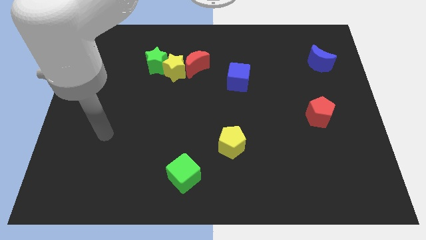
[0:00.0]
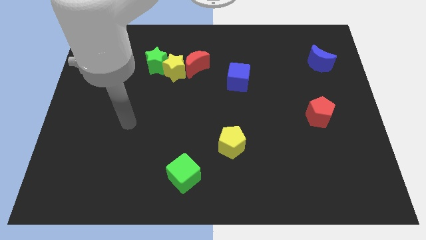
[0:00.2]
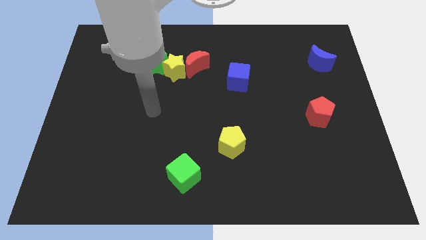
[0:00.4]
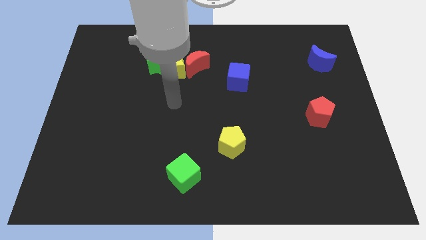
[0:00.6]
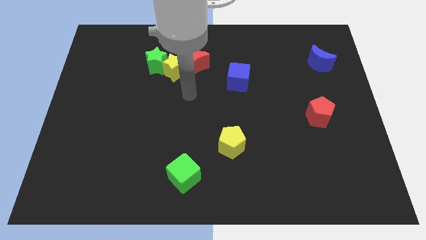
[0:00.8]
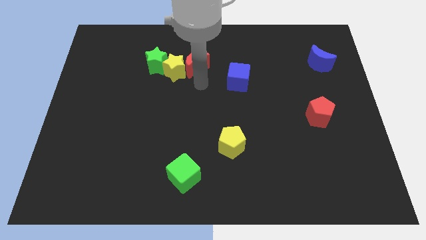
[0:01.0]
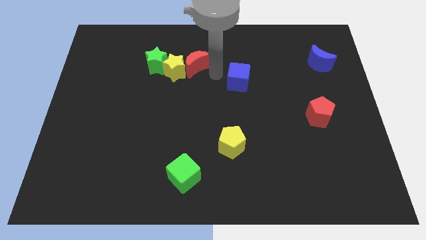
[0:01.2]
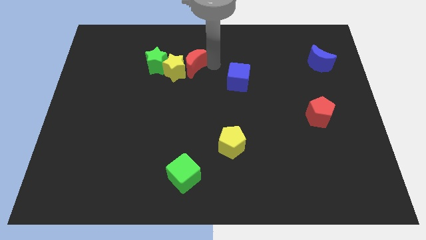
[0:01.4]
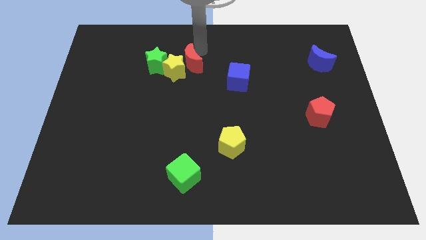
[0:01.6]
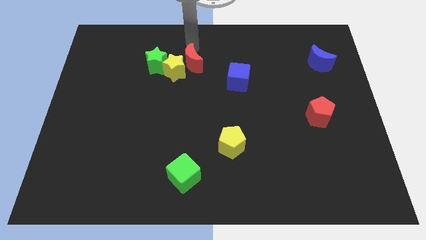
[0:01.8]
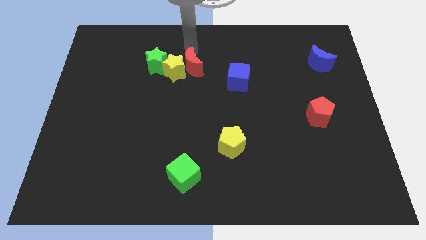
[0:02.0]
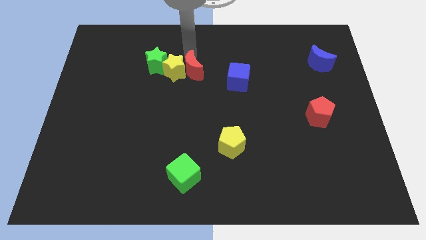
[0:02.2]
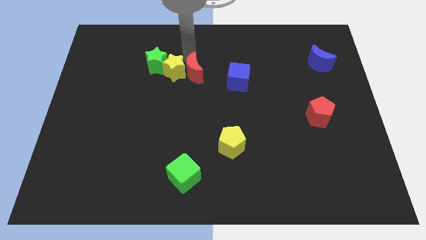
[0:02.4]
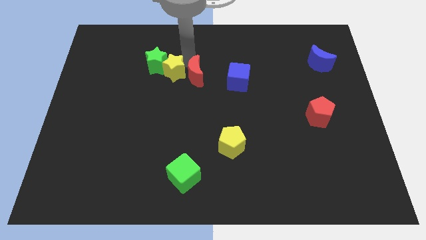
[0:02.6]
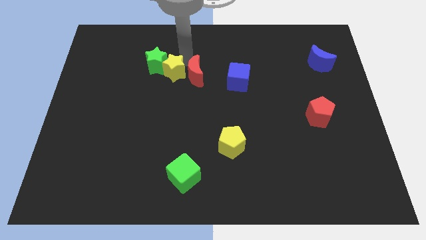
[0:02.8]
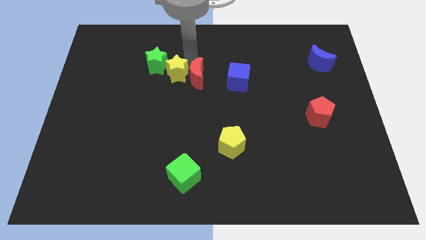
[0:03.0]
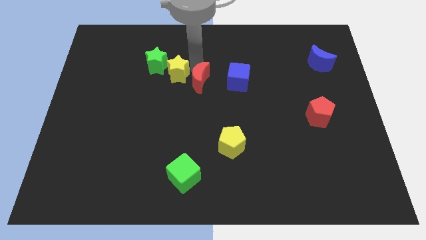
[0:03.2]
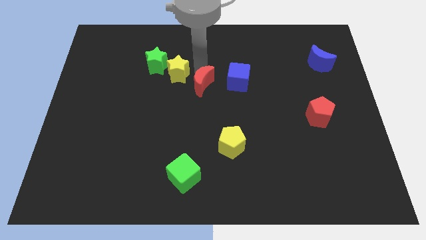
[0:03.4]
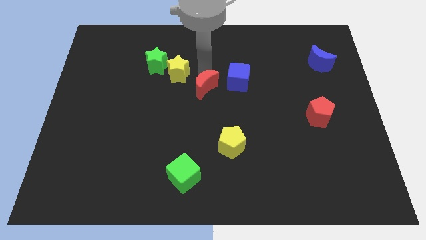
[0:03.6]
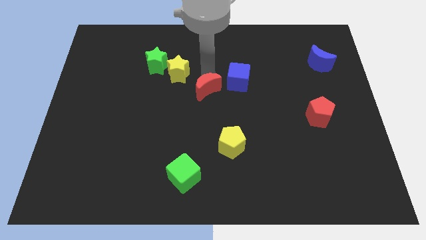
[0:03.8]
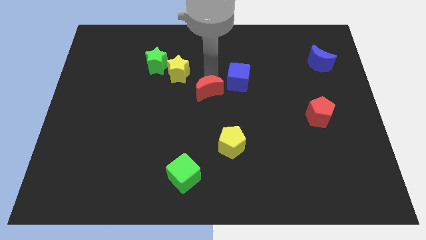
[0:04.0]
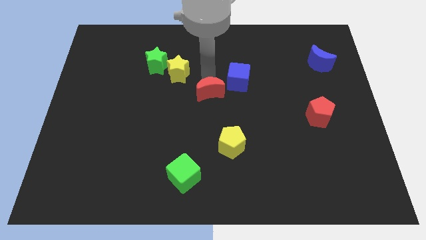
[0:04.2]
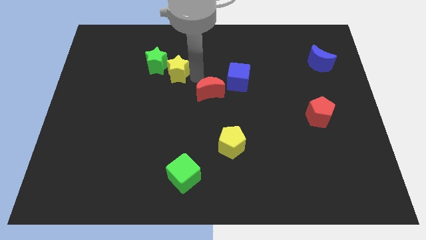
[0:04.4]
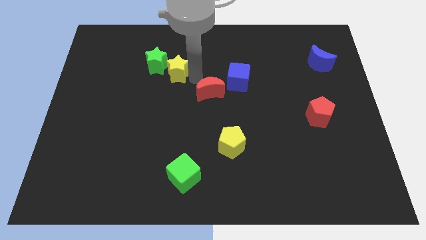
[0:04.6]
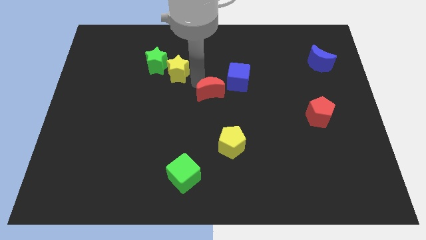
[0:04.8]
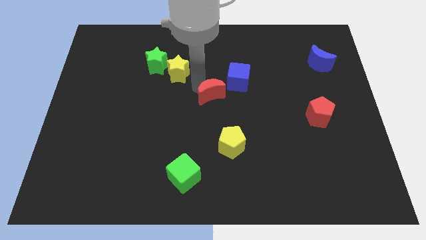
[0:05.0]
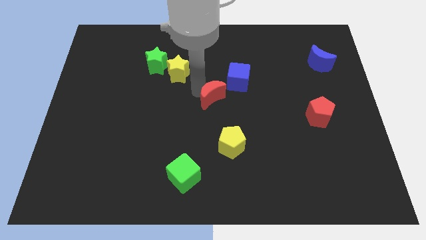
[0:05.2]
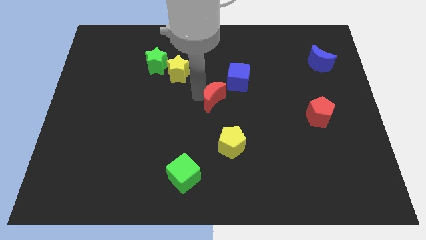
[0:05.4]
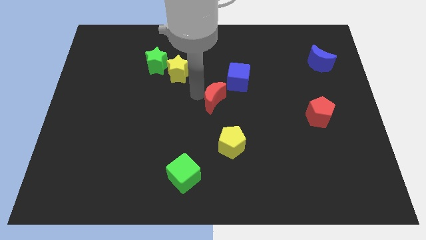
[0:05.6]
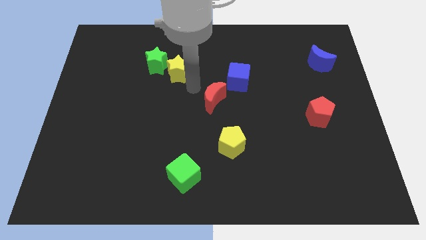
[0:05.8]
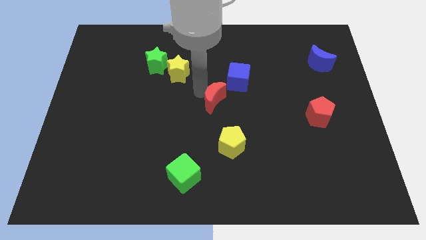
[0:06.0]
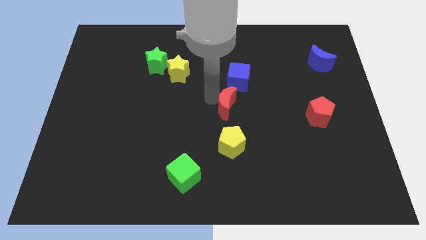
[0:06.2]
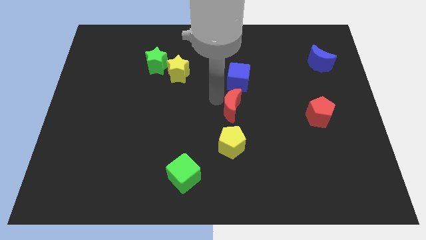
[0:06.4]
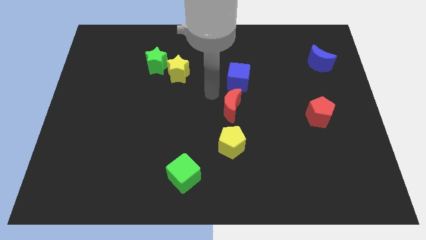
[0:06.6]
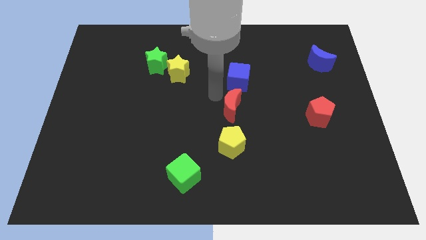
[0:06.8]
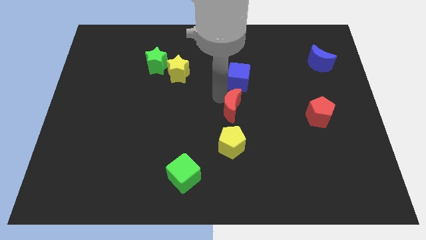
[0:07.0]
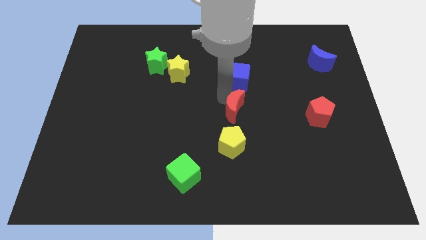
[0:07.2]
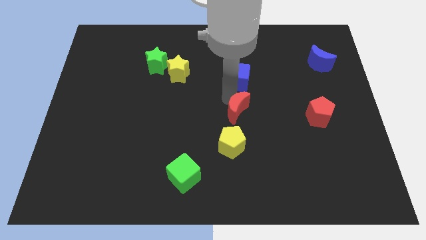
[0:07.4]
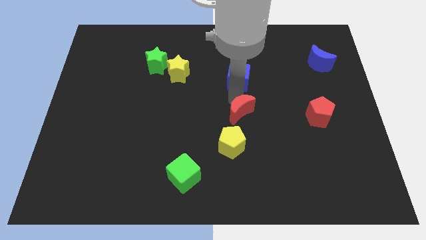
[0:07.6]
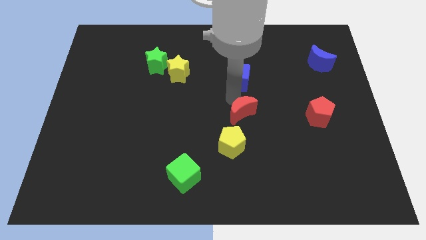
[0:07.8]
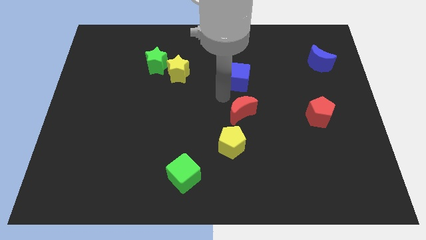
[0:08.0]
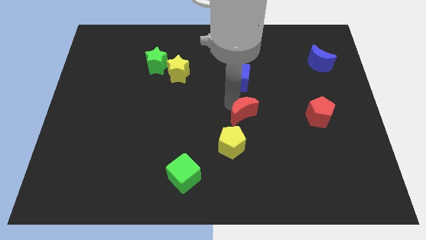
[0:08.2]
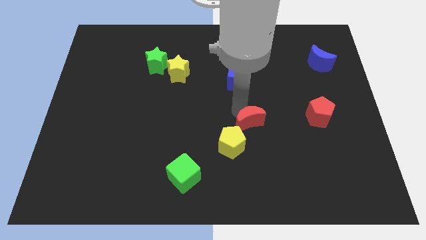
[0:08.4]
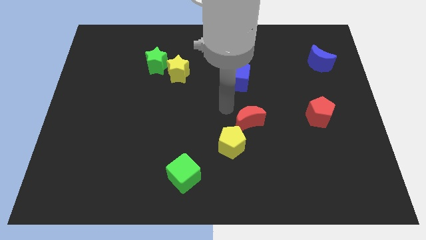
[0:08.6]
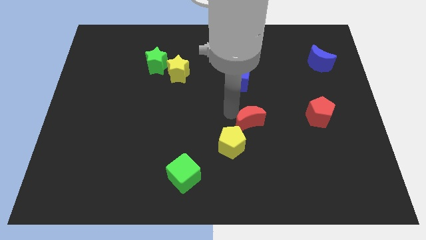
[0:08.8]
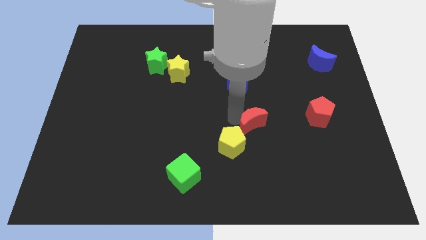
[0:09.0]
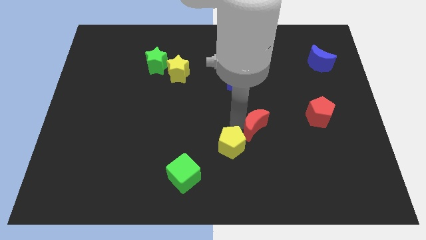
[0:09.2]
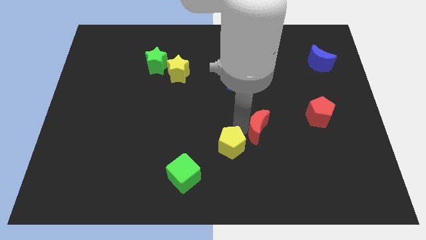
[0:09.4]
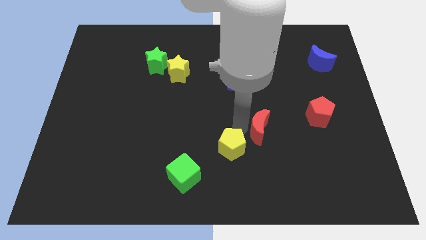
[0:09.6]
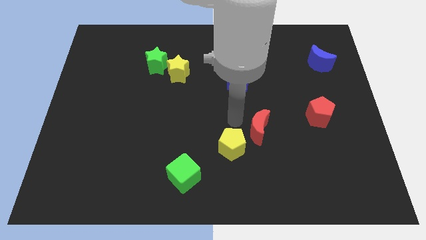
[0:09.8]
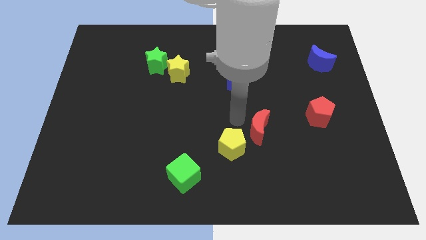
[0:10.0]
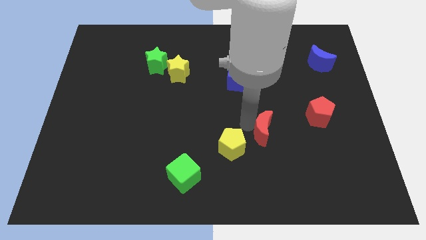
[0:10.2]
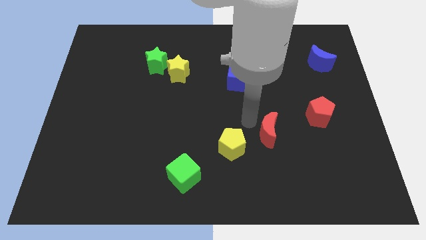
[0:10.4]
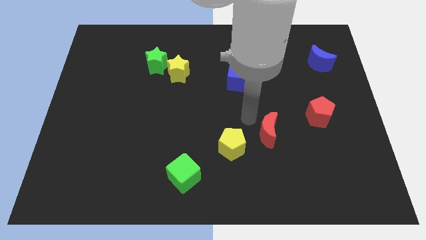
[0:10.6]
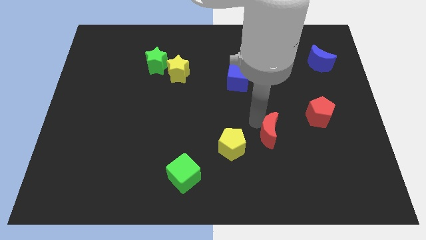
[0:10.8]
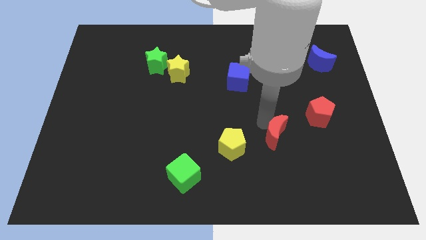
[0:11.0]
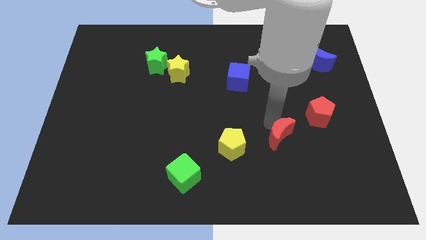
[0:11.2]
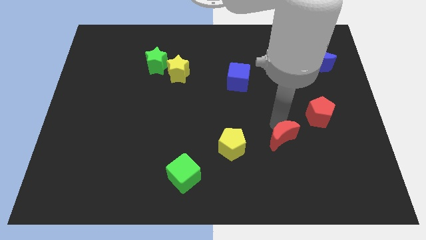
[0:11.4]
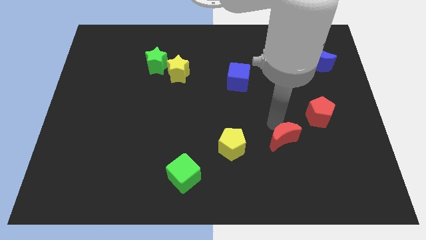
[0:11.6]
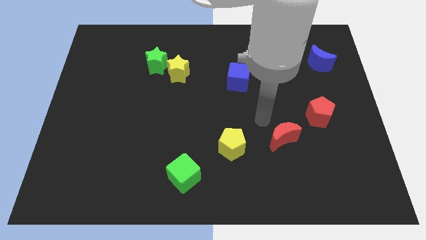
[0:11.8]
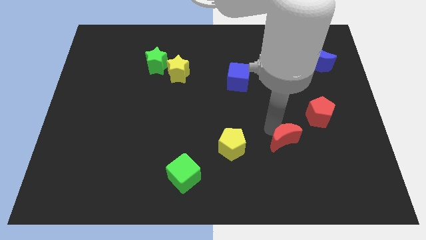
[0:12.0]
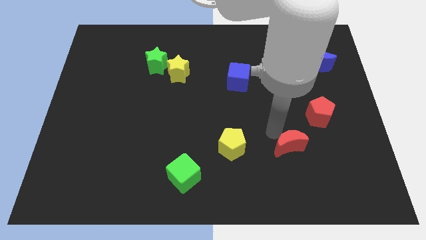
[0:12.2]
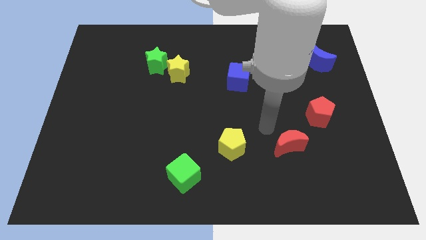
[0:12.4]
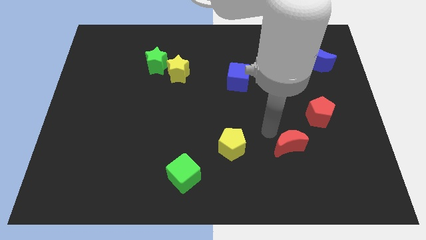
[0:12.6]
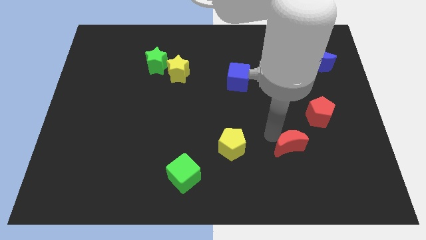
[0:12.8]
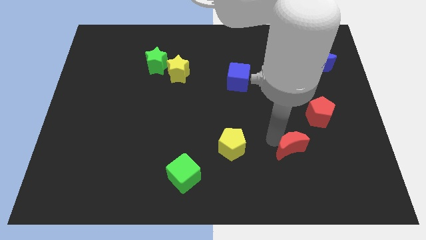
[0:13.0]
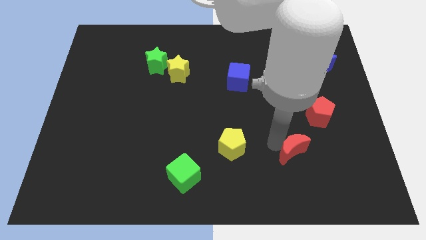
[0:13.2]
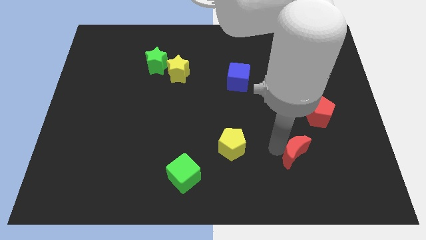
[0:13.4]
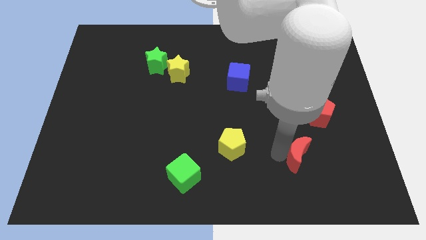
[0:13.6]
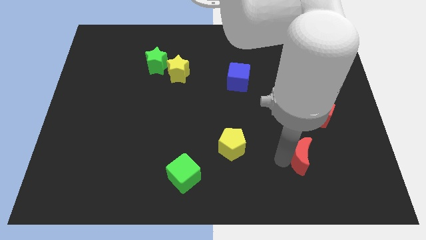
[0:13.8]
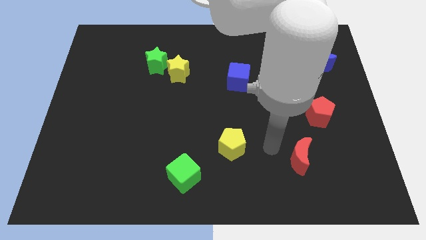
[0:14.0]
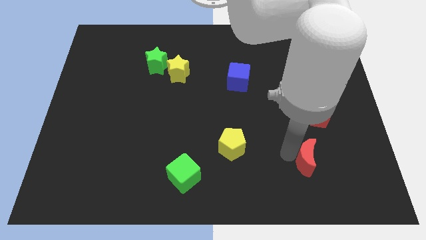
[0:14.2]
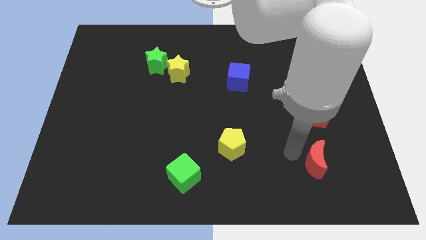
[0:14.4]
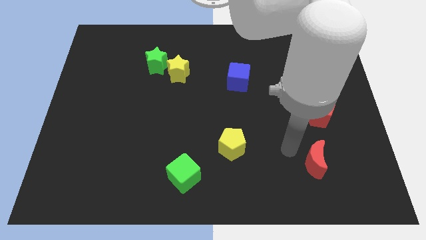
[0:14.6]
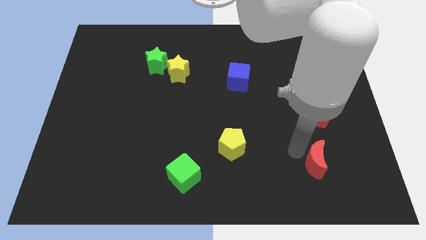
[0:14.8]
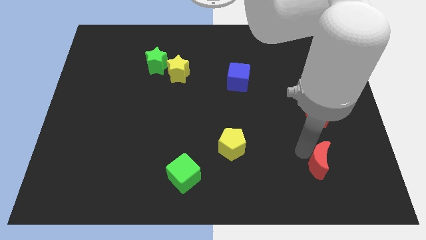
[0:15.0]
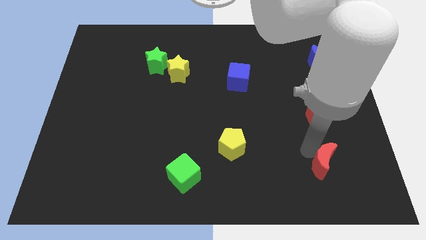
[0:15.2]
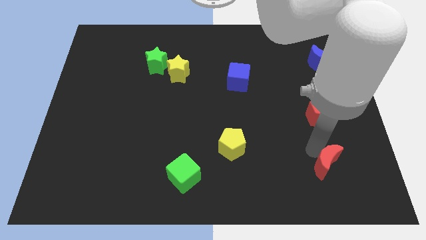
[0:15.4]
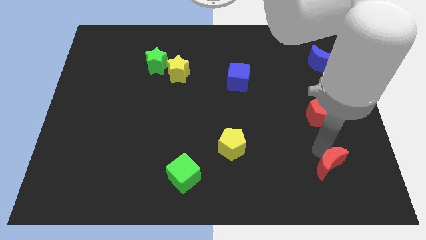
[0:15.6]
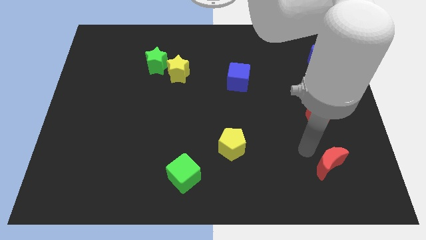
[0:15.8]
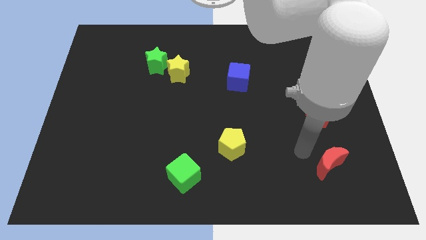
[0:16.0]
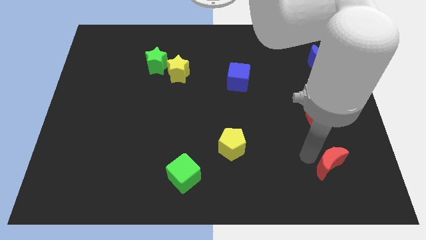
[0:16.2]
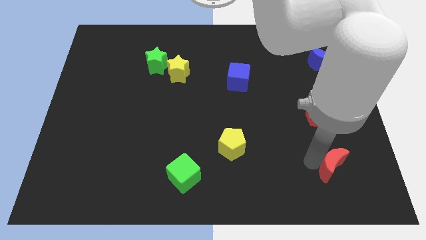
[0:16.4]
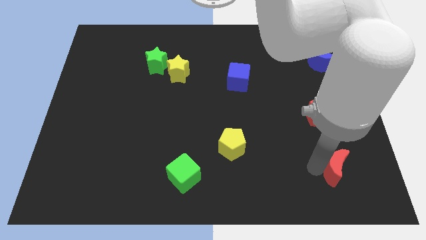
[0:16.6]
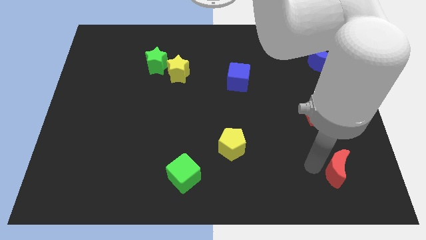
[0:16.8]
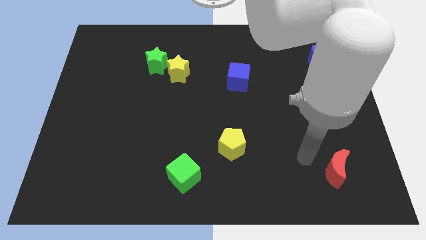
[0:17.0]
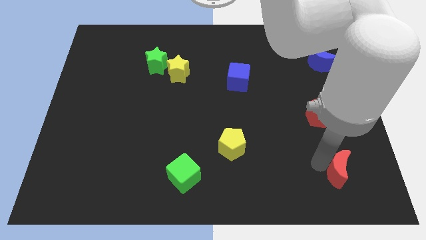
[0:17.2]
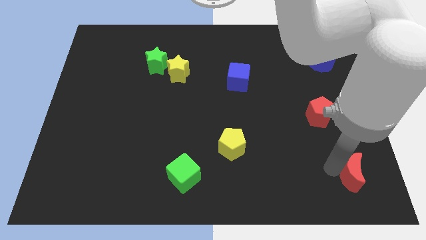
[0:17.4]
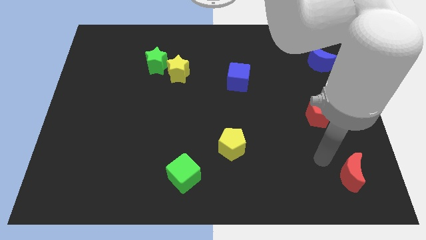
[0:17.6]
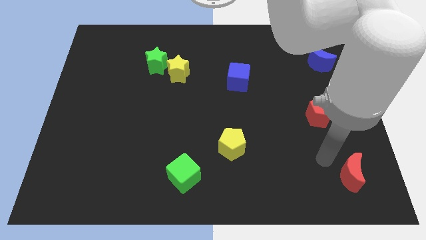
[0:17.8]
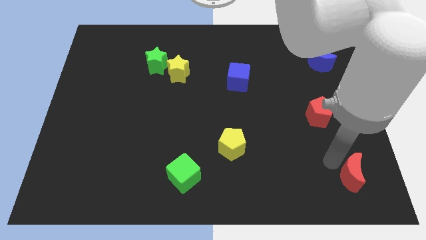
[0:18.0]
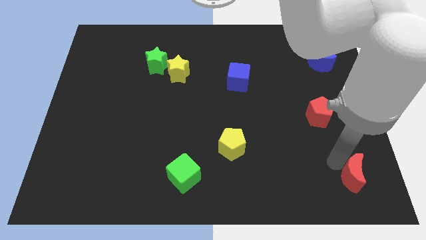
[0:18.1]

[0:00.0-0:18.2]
push the red moon to the bottom right of the board
